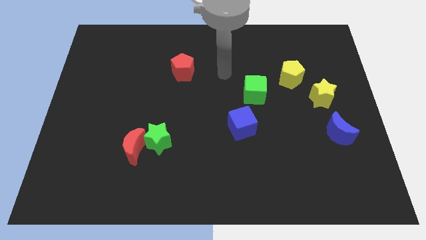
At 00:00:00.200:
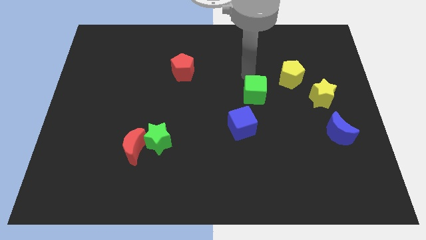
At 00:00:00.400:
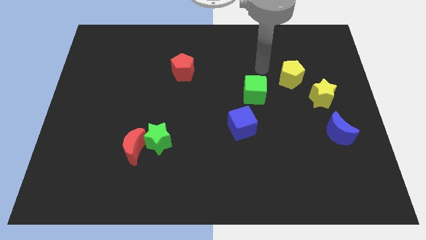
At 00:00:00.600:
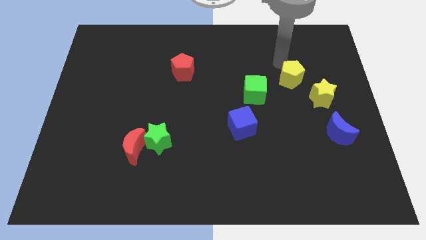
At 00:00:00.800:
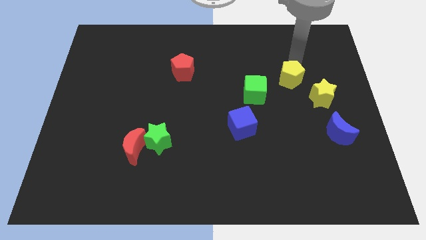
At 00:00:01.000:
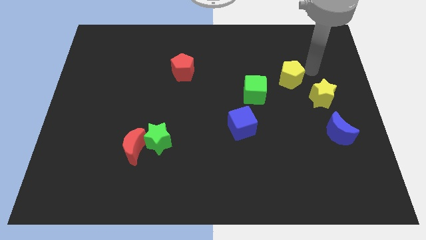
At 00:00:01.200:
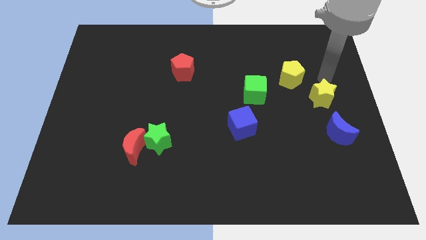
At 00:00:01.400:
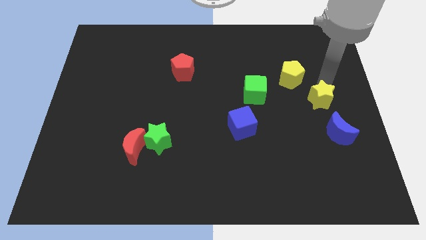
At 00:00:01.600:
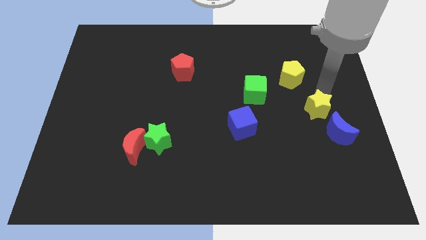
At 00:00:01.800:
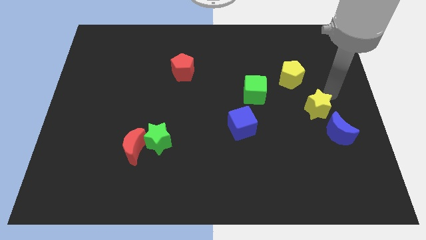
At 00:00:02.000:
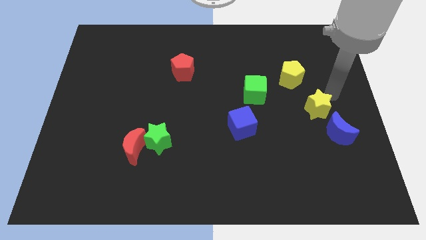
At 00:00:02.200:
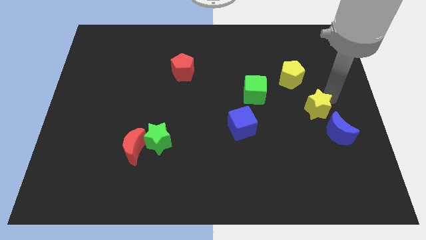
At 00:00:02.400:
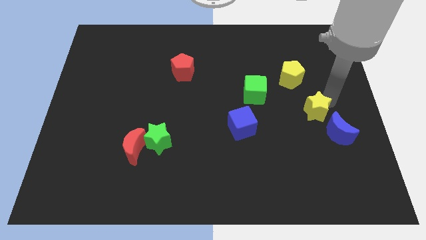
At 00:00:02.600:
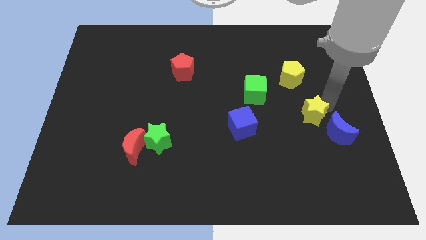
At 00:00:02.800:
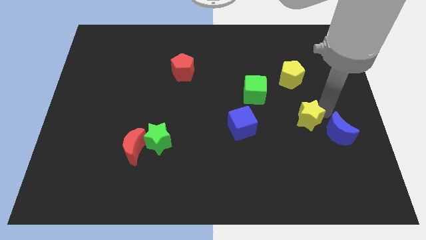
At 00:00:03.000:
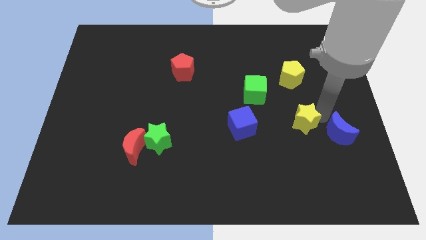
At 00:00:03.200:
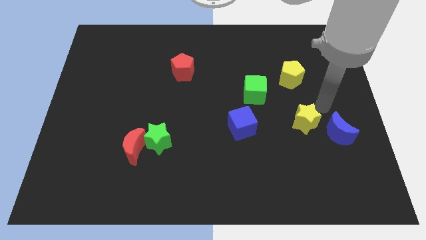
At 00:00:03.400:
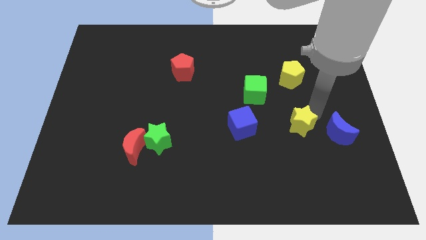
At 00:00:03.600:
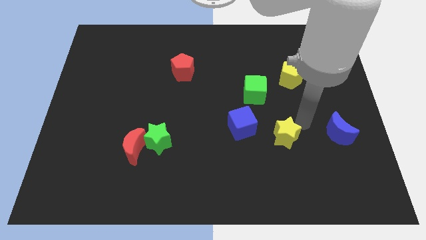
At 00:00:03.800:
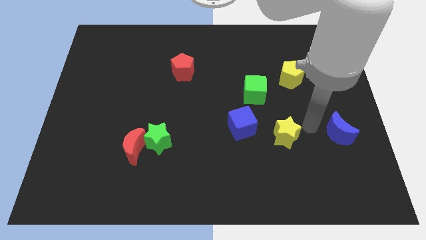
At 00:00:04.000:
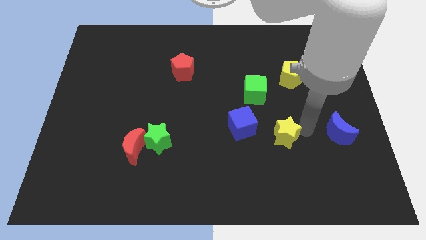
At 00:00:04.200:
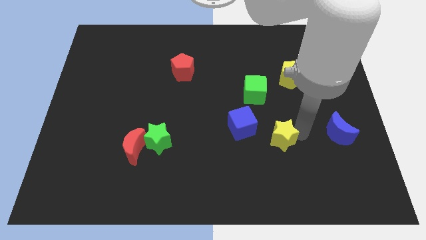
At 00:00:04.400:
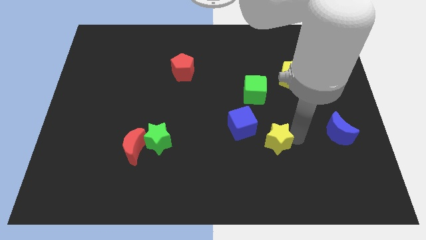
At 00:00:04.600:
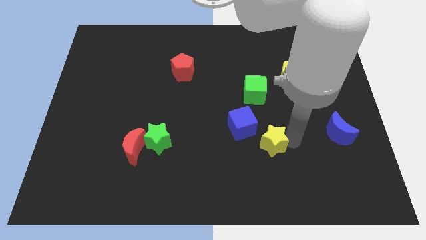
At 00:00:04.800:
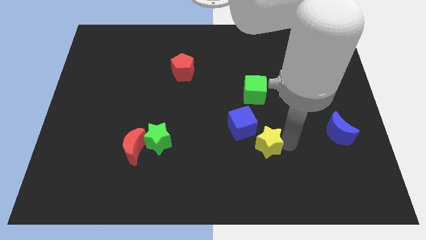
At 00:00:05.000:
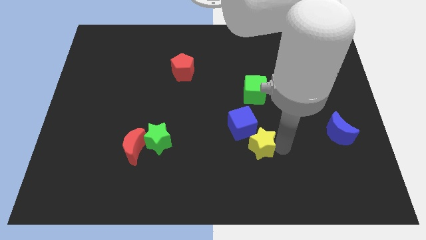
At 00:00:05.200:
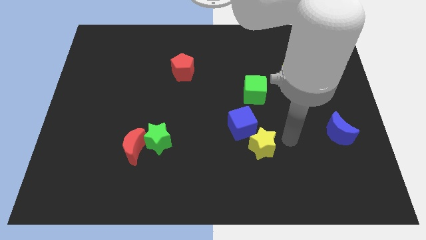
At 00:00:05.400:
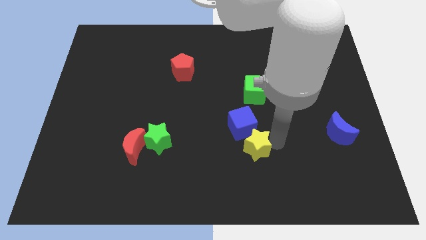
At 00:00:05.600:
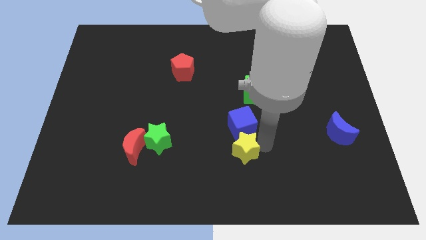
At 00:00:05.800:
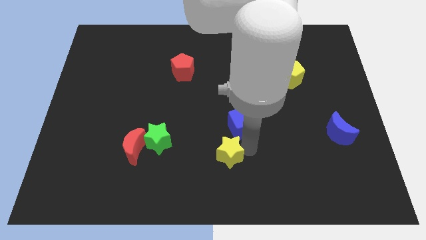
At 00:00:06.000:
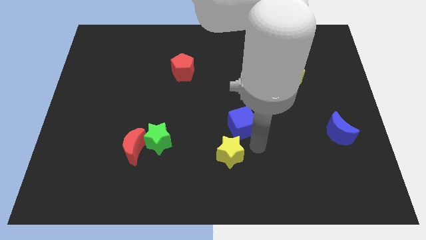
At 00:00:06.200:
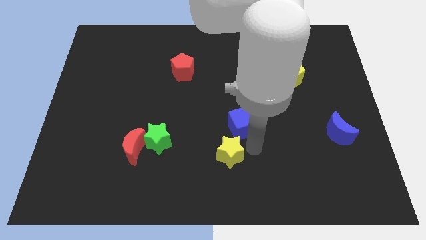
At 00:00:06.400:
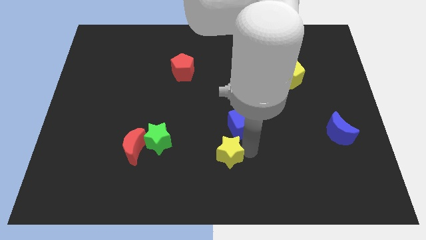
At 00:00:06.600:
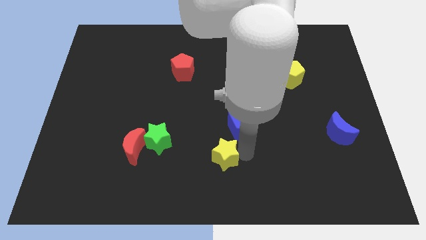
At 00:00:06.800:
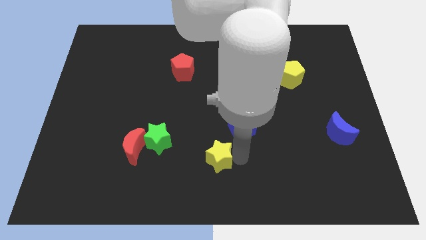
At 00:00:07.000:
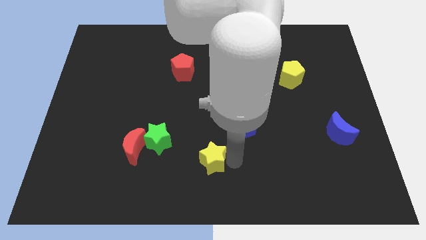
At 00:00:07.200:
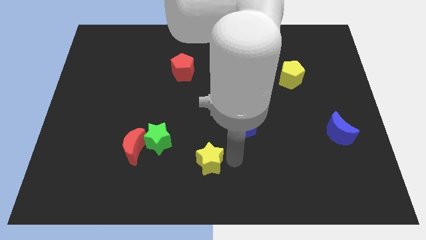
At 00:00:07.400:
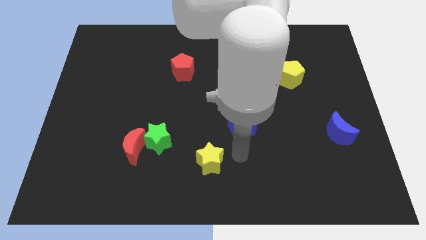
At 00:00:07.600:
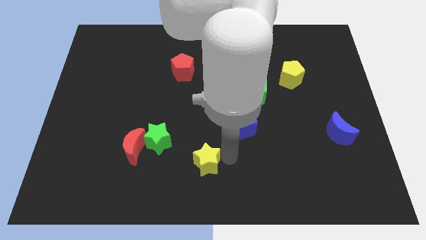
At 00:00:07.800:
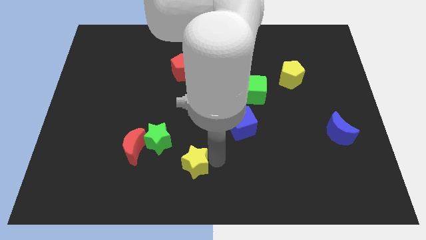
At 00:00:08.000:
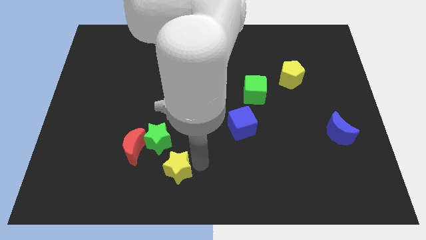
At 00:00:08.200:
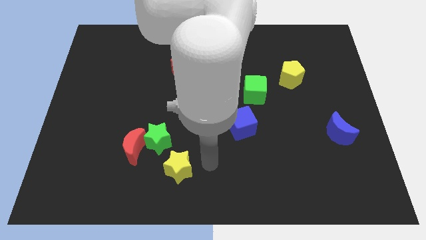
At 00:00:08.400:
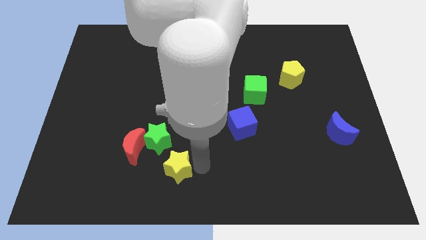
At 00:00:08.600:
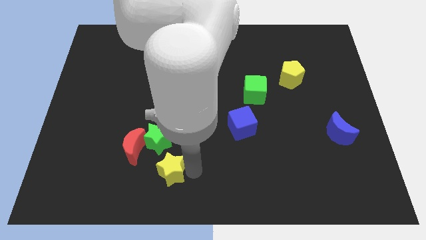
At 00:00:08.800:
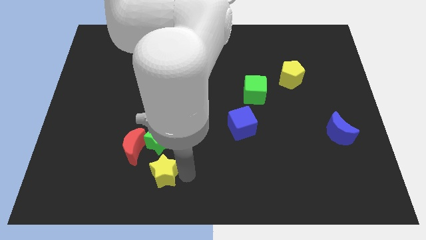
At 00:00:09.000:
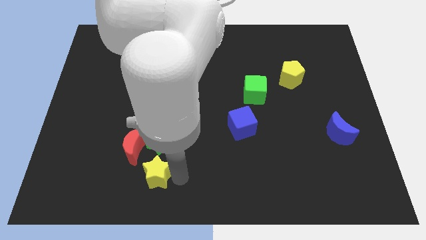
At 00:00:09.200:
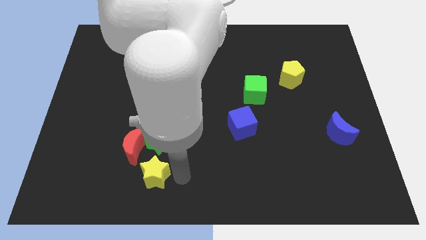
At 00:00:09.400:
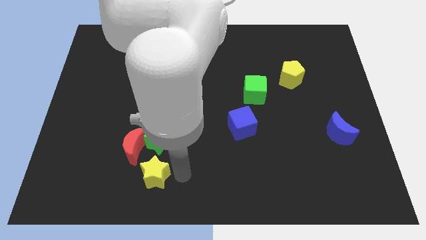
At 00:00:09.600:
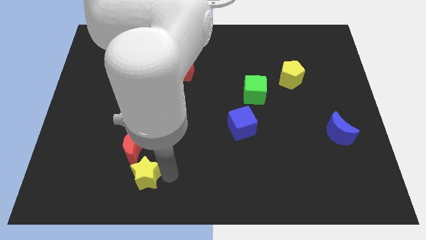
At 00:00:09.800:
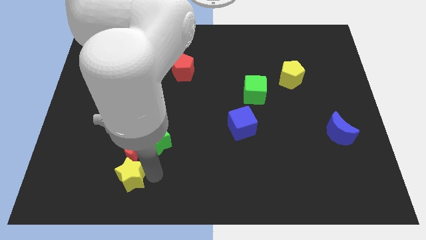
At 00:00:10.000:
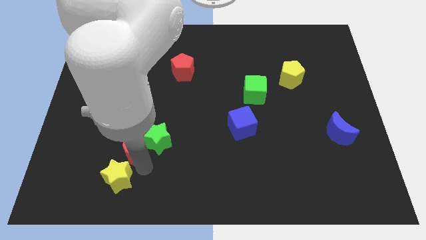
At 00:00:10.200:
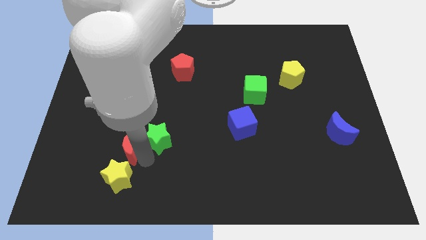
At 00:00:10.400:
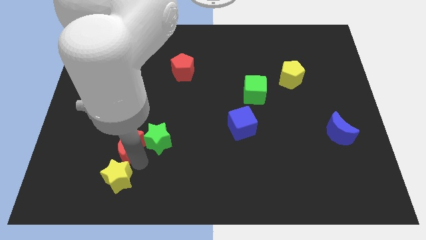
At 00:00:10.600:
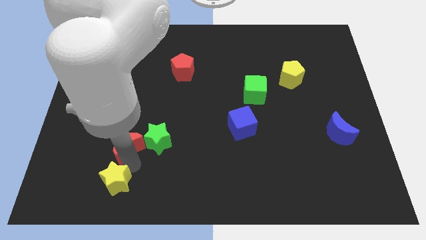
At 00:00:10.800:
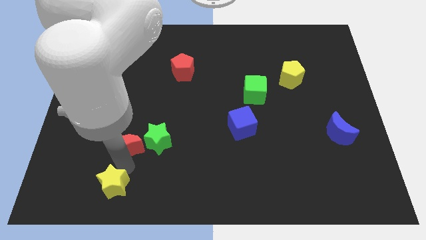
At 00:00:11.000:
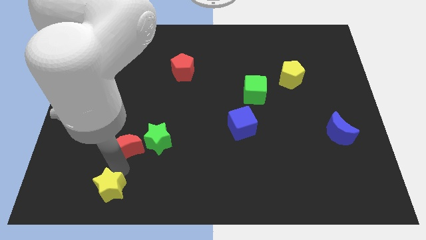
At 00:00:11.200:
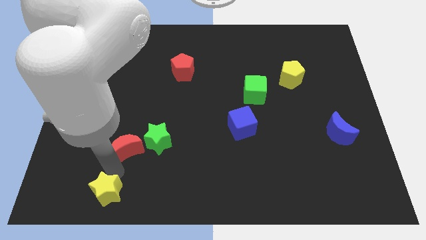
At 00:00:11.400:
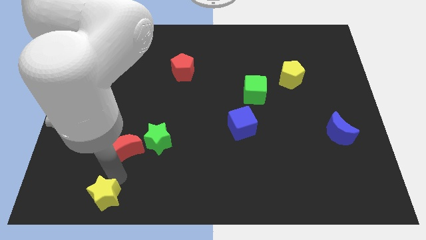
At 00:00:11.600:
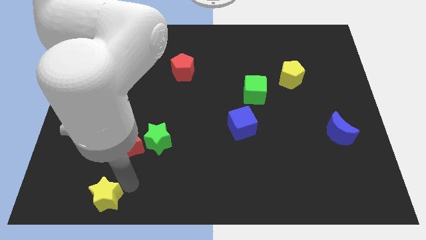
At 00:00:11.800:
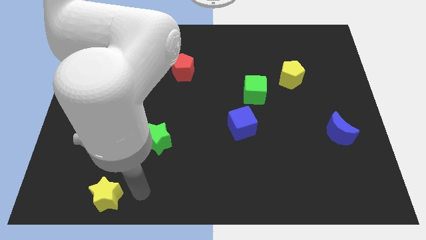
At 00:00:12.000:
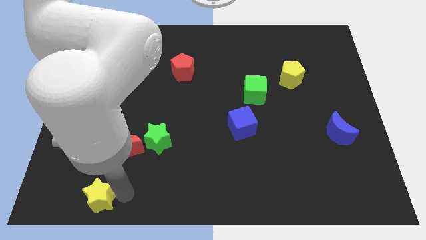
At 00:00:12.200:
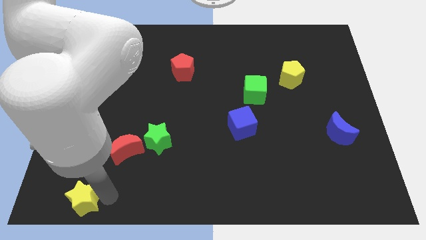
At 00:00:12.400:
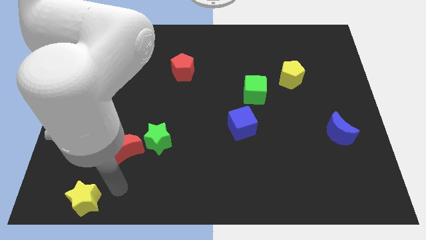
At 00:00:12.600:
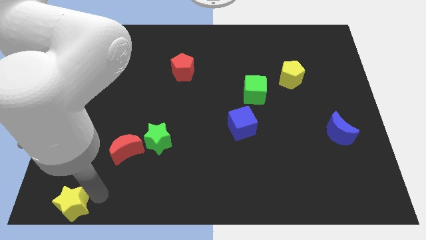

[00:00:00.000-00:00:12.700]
push the yellow star to the bottom left corner
